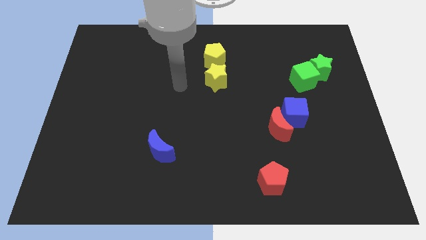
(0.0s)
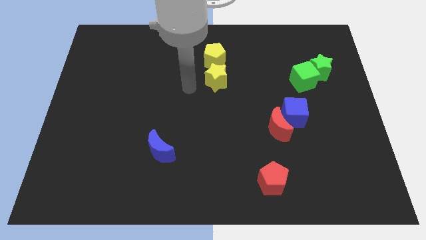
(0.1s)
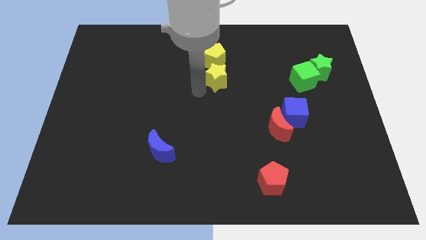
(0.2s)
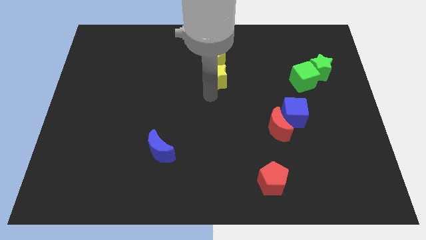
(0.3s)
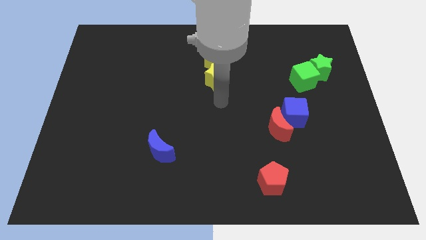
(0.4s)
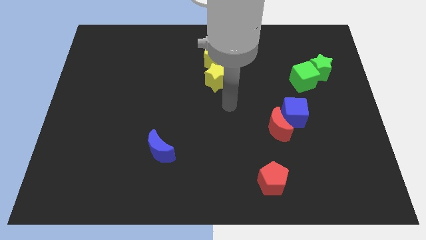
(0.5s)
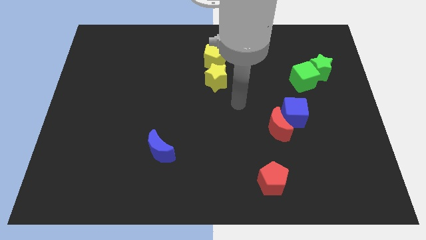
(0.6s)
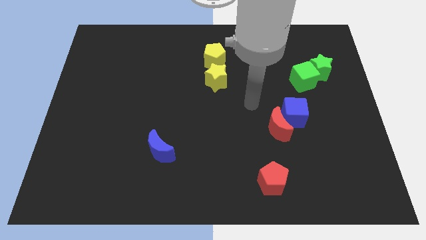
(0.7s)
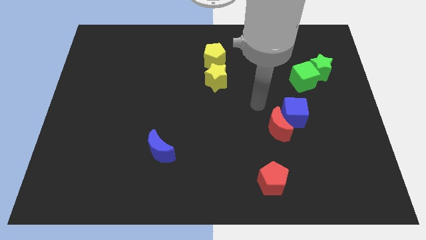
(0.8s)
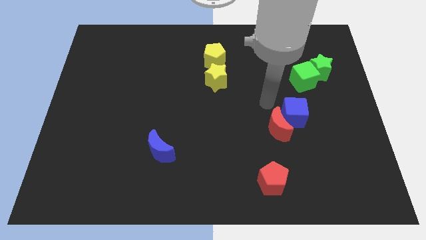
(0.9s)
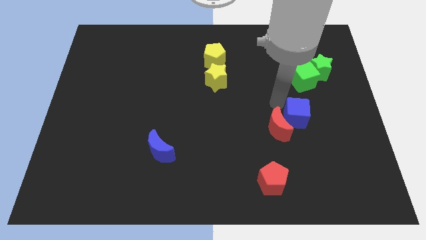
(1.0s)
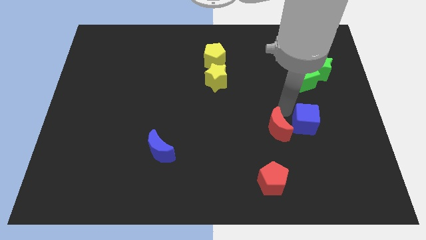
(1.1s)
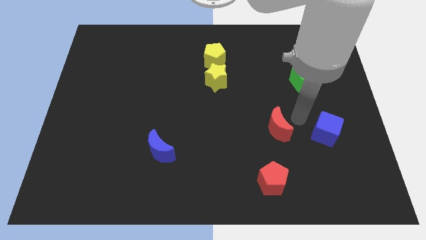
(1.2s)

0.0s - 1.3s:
move the red moon away from the blue cube

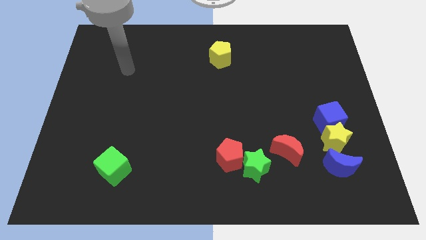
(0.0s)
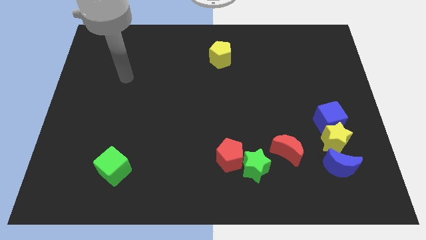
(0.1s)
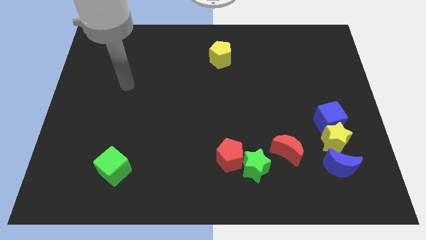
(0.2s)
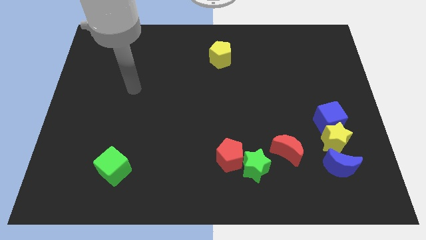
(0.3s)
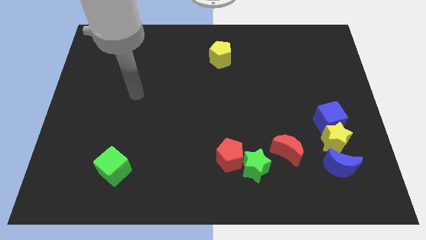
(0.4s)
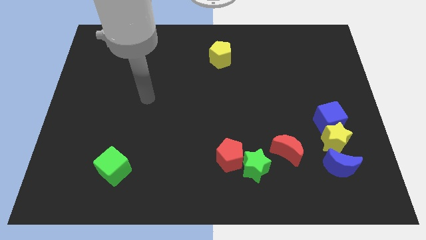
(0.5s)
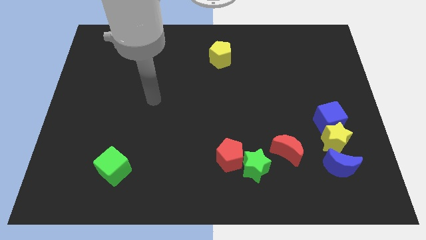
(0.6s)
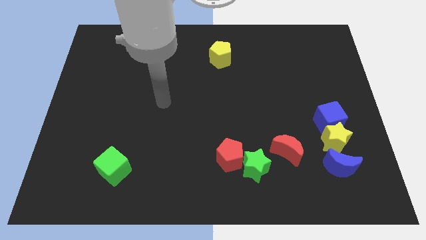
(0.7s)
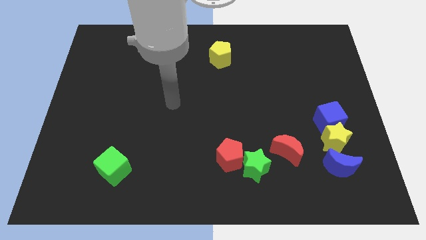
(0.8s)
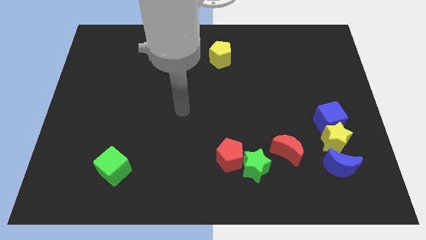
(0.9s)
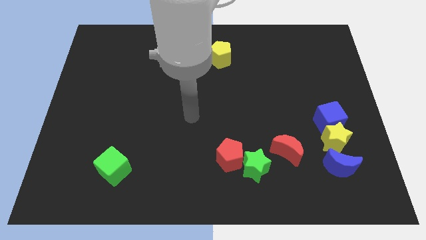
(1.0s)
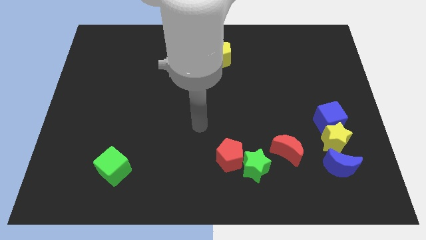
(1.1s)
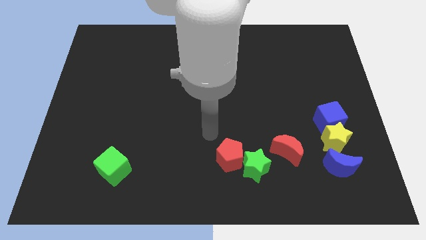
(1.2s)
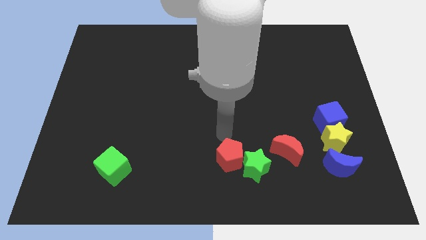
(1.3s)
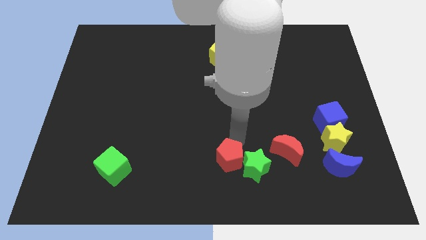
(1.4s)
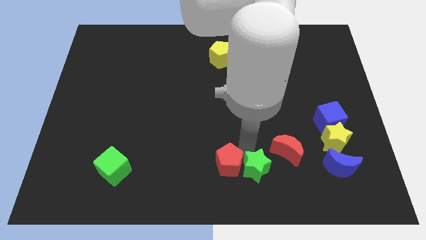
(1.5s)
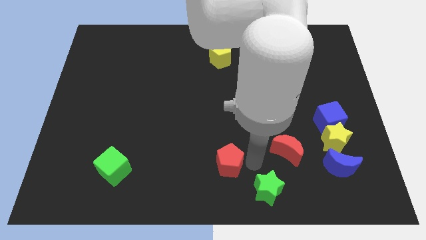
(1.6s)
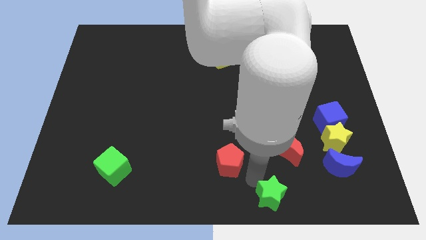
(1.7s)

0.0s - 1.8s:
pull the red pentagon apart from the green star

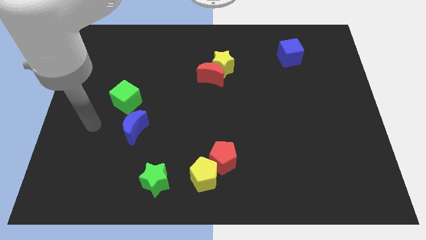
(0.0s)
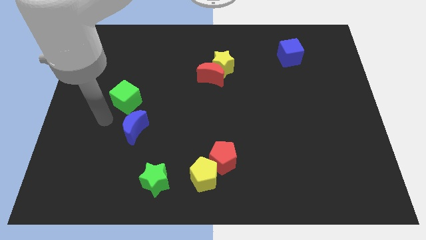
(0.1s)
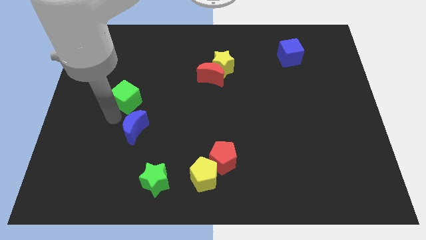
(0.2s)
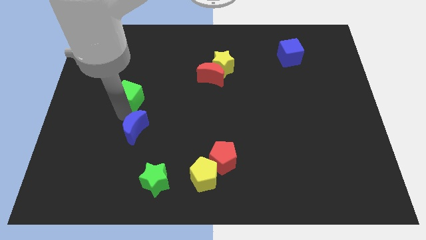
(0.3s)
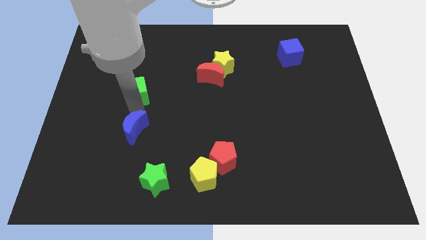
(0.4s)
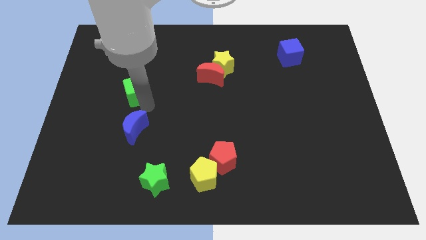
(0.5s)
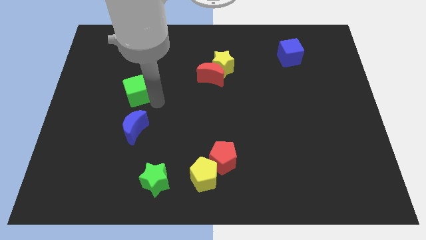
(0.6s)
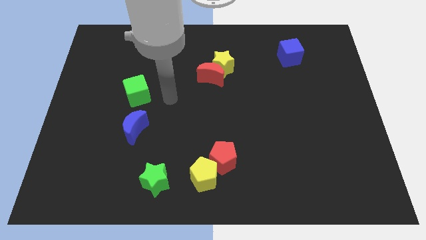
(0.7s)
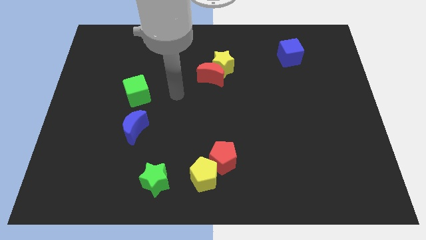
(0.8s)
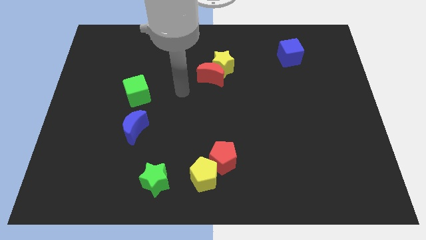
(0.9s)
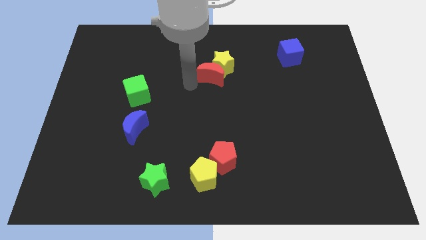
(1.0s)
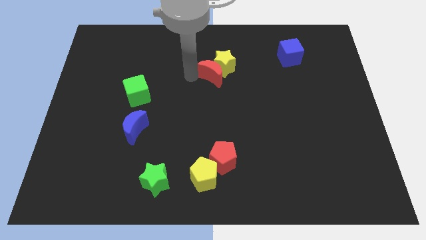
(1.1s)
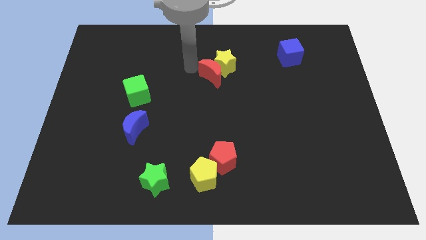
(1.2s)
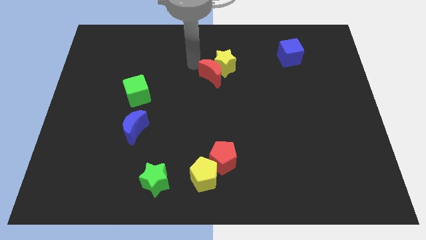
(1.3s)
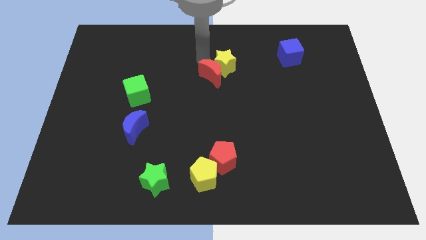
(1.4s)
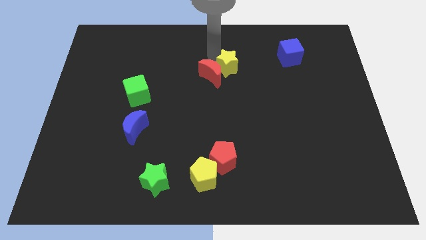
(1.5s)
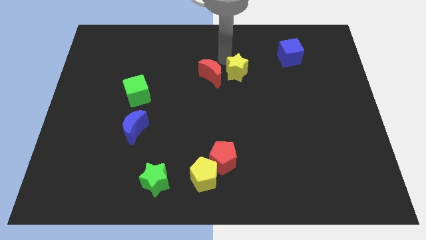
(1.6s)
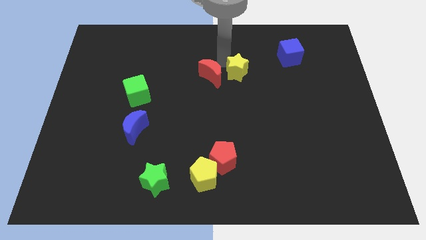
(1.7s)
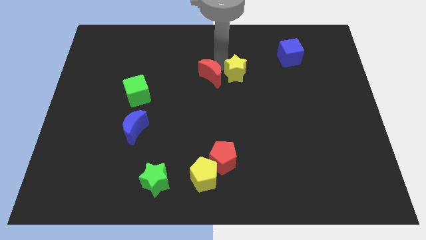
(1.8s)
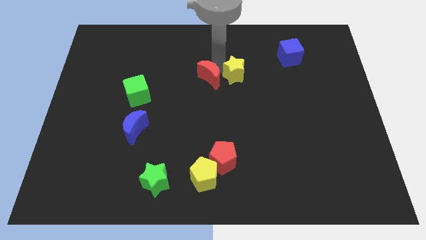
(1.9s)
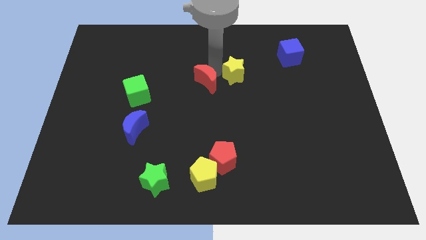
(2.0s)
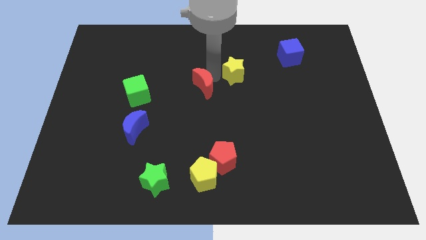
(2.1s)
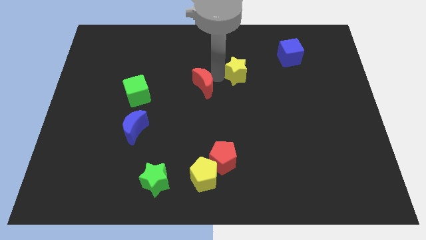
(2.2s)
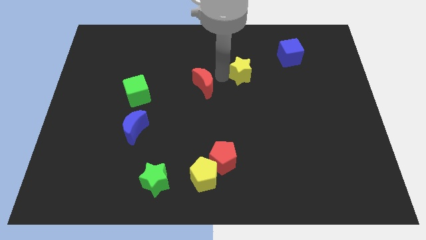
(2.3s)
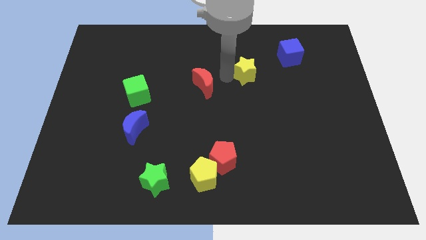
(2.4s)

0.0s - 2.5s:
pull the red moon apart from the yellow star

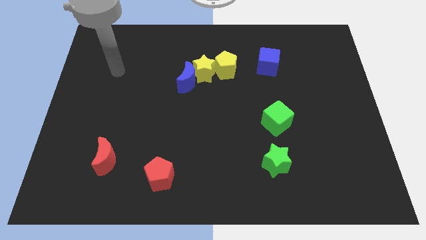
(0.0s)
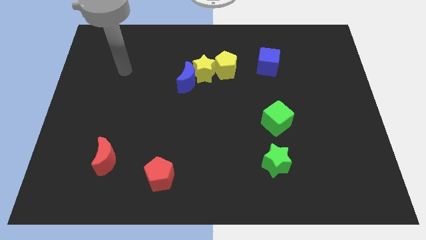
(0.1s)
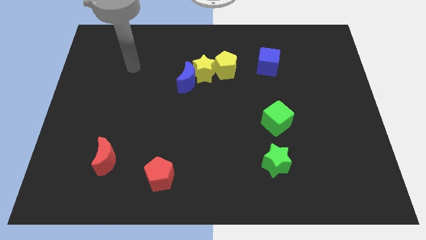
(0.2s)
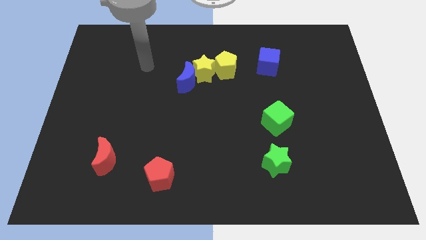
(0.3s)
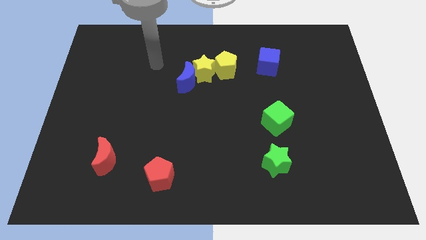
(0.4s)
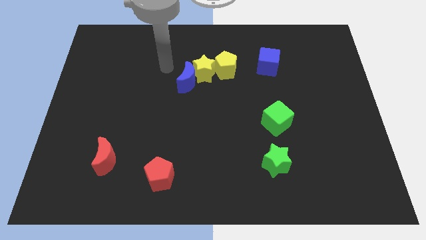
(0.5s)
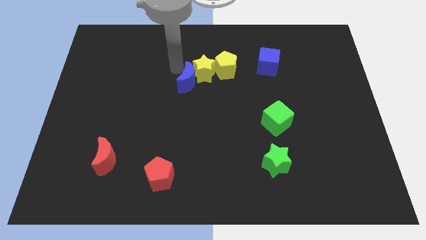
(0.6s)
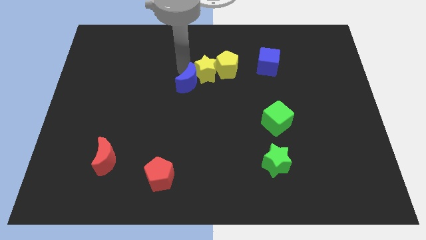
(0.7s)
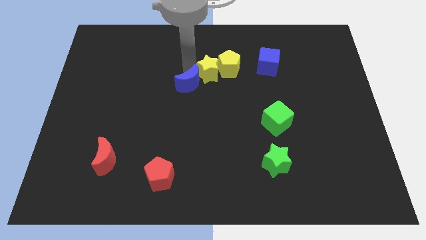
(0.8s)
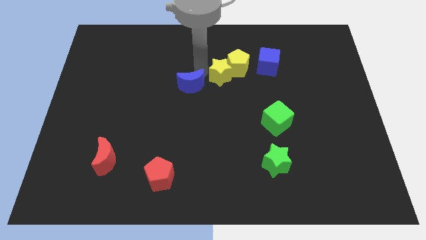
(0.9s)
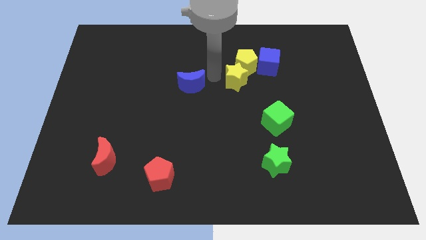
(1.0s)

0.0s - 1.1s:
pull the blue moon apart from the yellow star

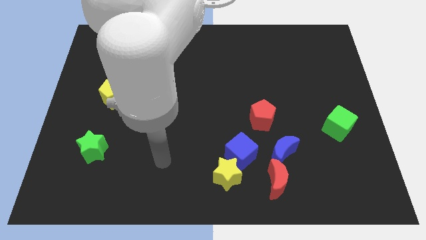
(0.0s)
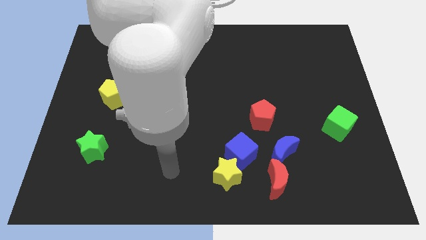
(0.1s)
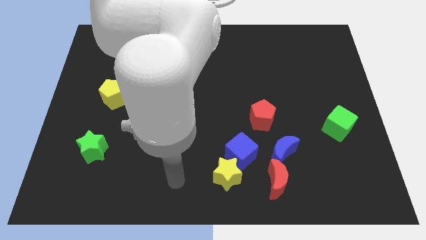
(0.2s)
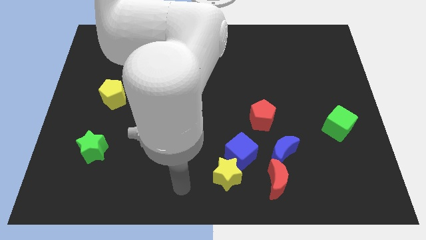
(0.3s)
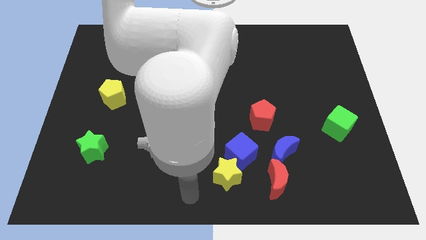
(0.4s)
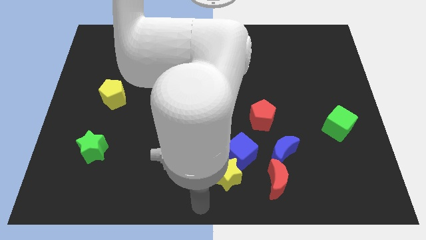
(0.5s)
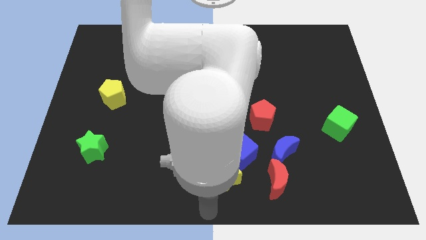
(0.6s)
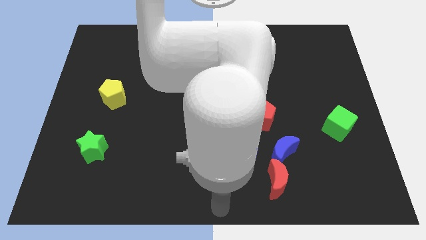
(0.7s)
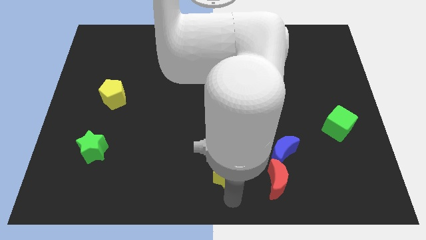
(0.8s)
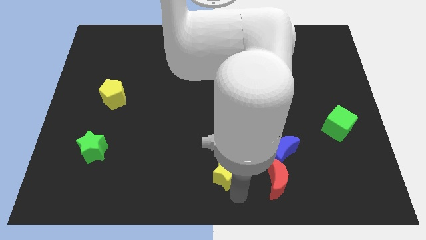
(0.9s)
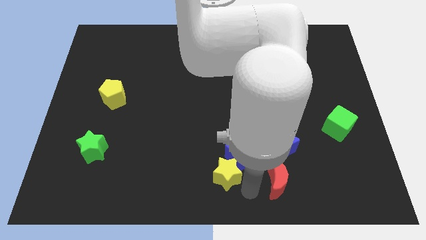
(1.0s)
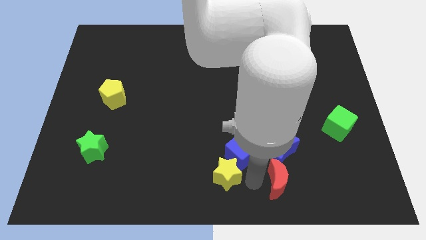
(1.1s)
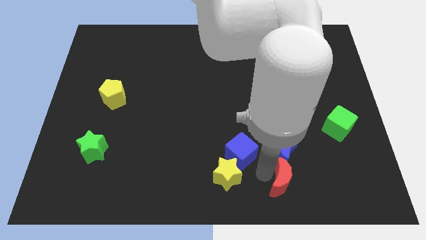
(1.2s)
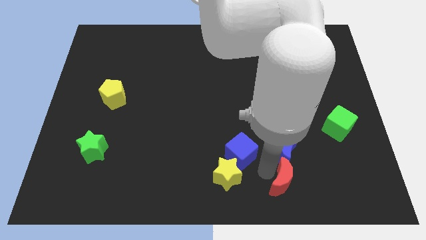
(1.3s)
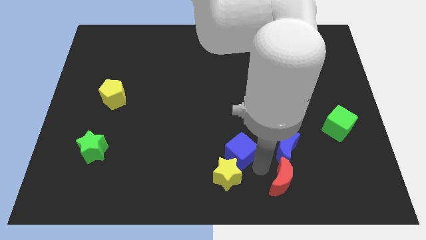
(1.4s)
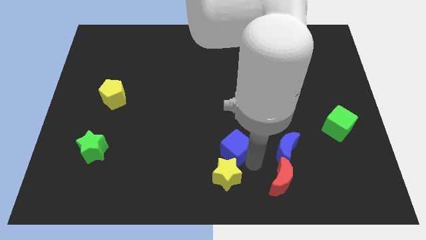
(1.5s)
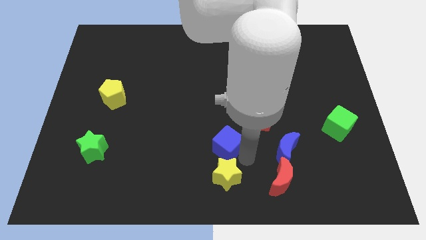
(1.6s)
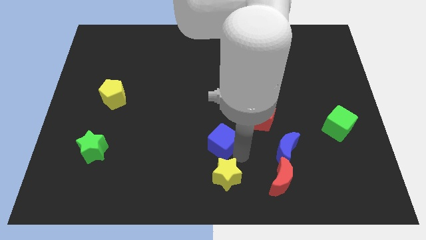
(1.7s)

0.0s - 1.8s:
separate the blue cube from the yellow star, blue moon, and red moon

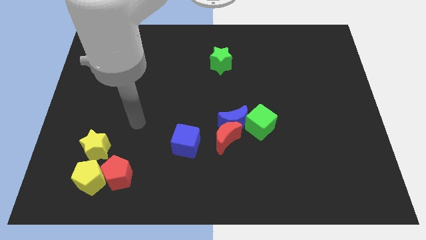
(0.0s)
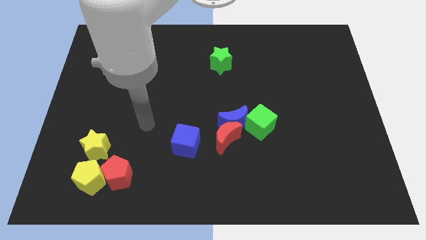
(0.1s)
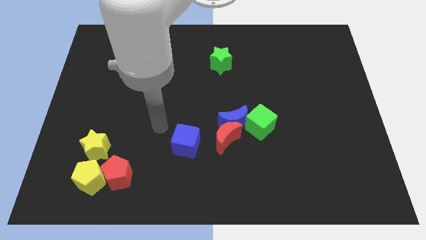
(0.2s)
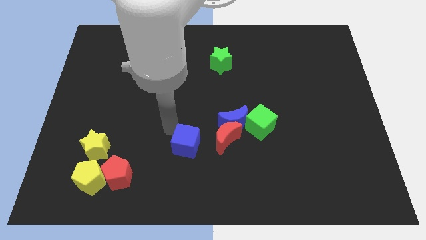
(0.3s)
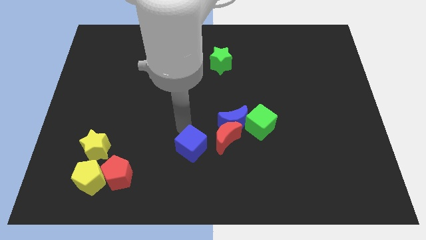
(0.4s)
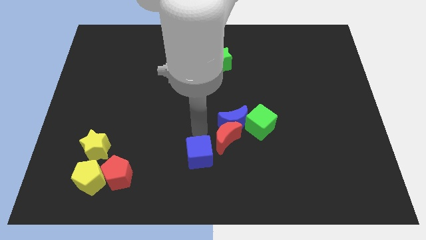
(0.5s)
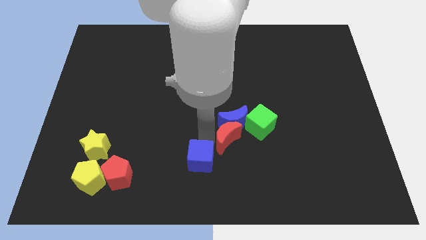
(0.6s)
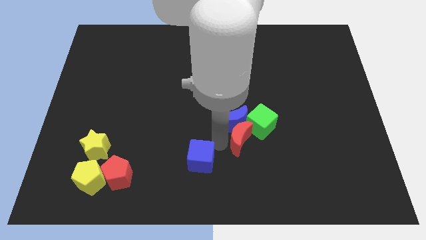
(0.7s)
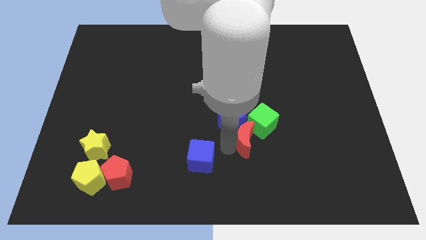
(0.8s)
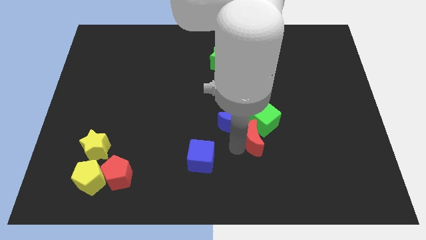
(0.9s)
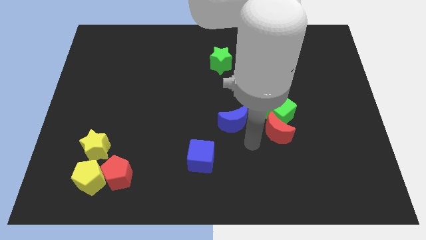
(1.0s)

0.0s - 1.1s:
separate the blue moon from the red moon and green cube
